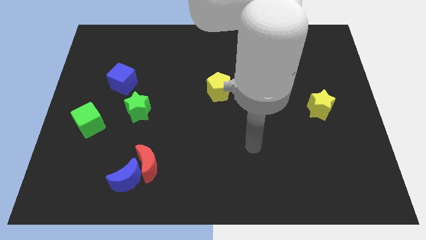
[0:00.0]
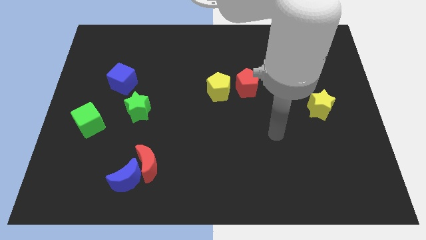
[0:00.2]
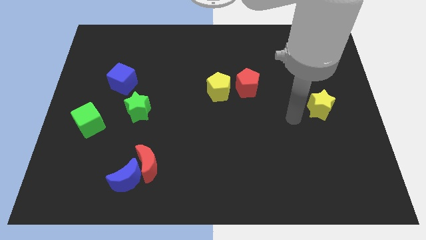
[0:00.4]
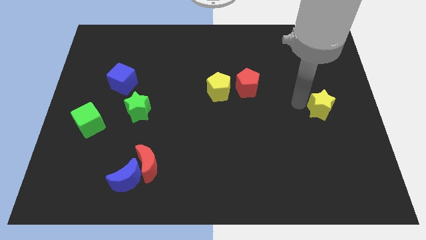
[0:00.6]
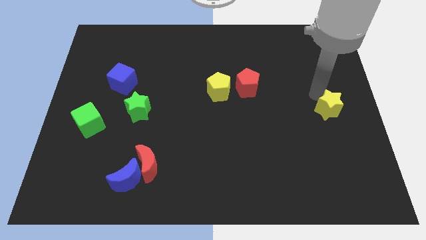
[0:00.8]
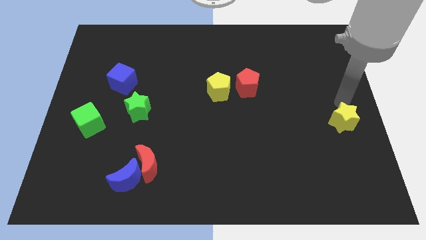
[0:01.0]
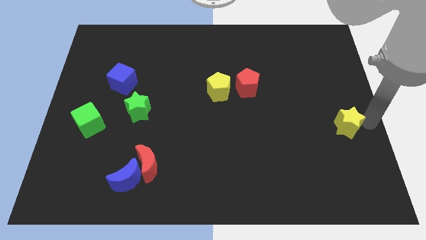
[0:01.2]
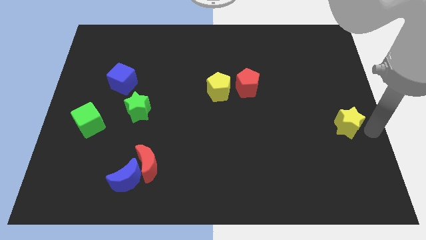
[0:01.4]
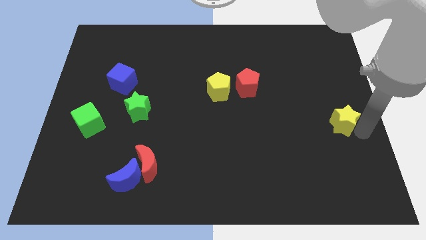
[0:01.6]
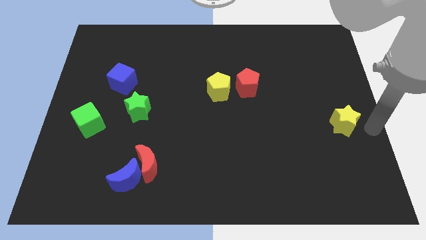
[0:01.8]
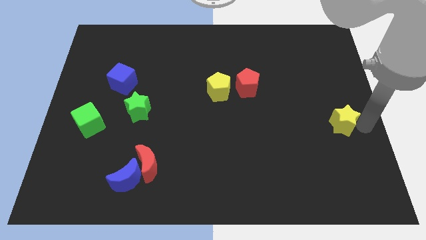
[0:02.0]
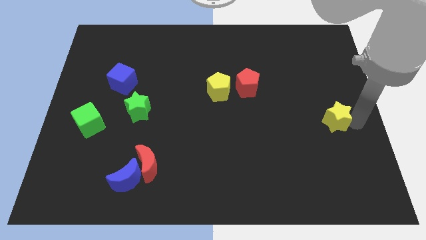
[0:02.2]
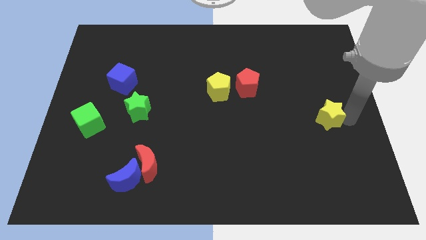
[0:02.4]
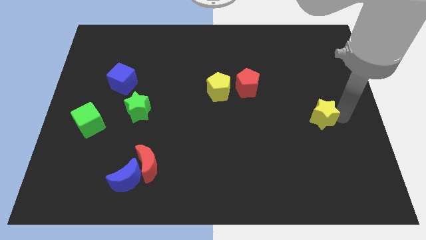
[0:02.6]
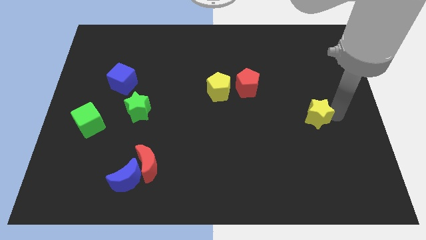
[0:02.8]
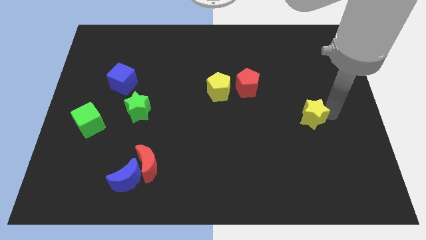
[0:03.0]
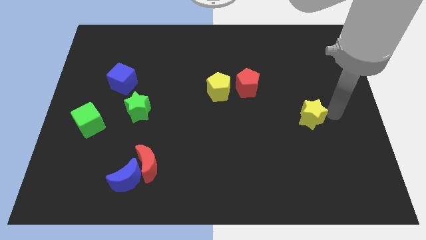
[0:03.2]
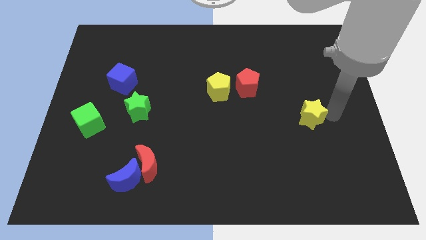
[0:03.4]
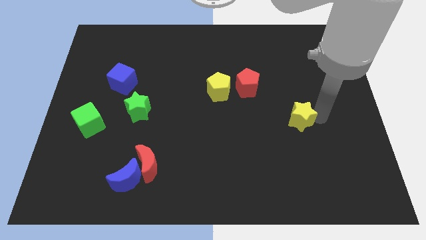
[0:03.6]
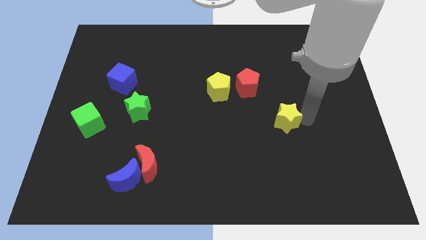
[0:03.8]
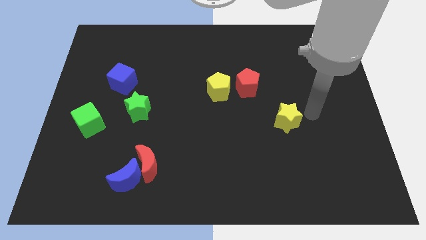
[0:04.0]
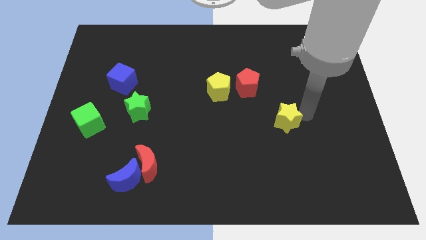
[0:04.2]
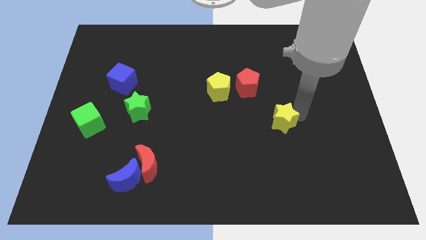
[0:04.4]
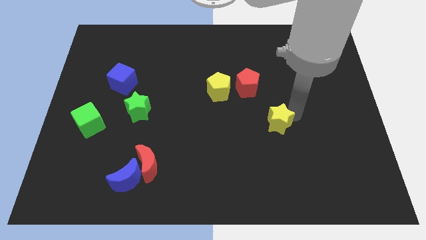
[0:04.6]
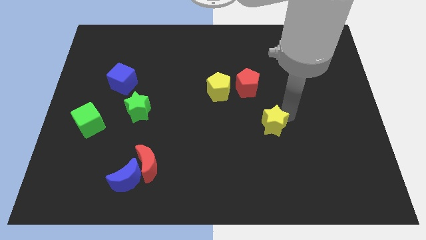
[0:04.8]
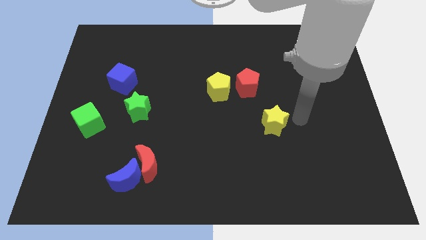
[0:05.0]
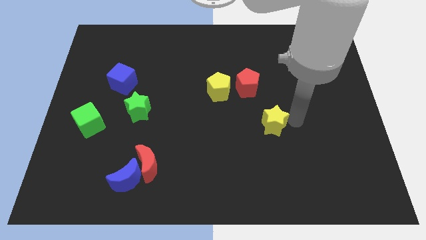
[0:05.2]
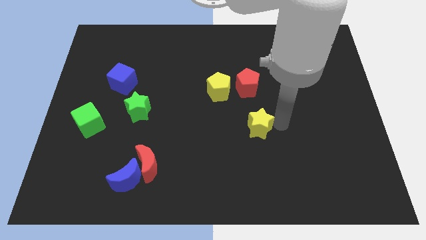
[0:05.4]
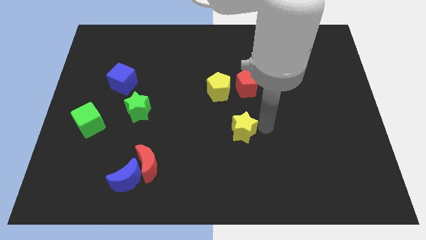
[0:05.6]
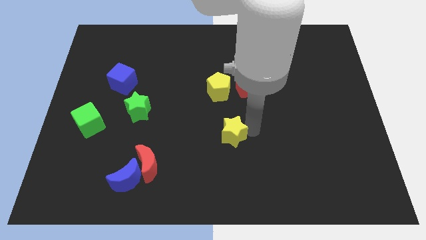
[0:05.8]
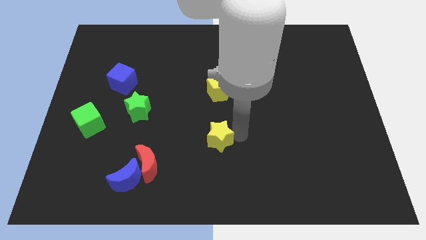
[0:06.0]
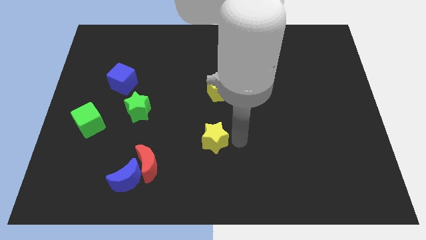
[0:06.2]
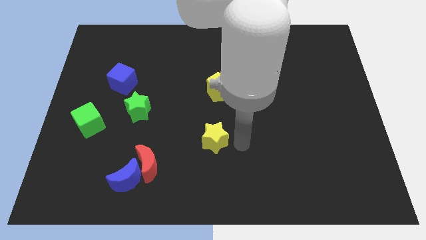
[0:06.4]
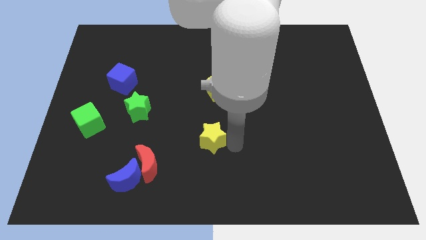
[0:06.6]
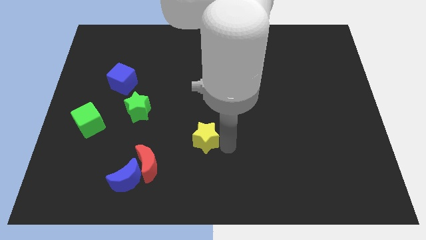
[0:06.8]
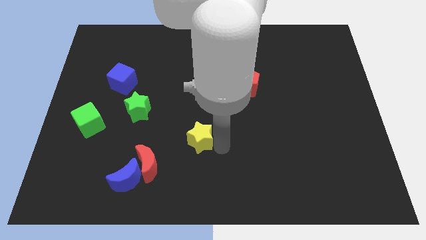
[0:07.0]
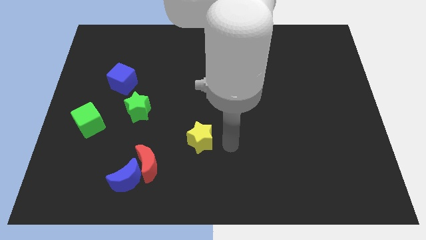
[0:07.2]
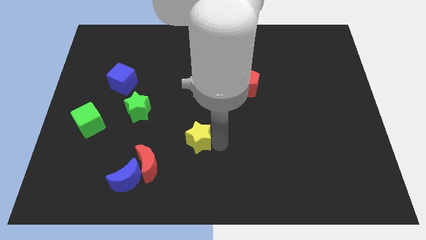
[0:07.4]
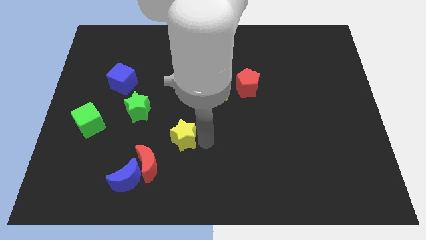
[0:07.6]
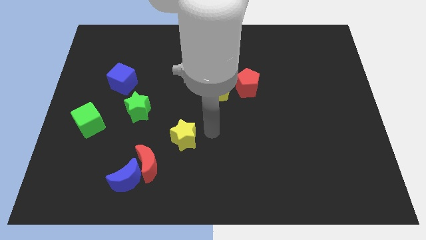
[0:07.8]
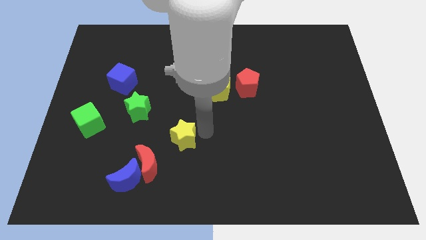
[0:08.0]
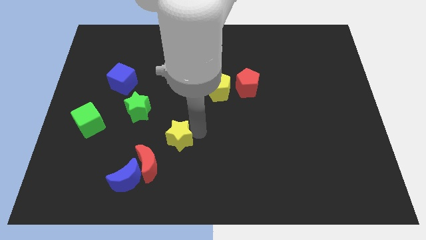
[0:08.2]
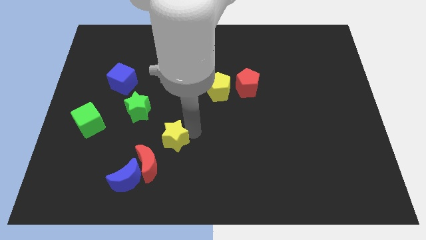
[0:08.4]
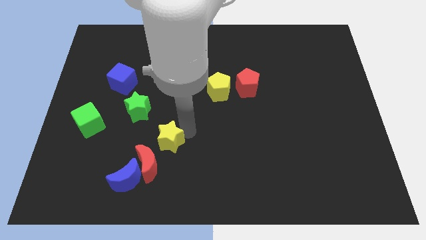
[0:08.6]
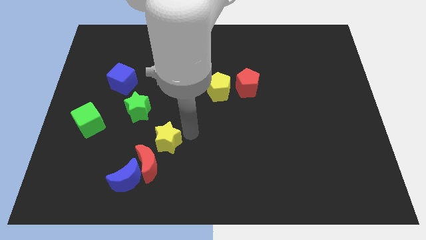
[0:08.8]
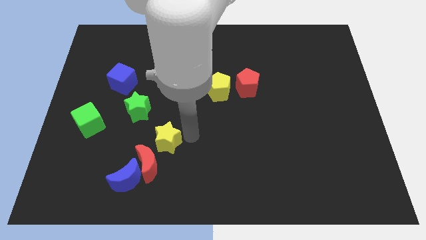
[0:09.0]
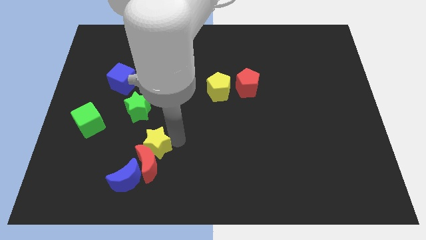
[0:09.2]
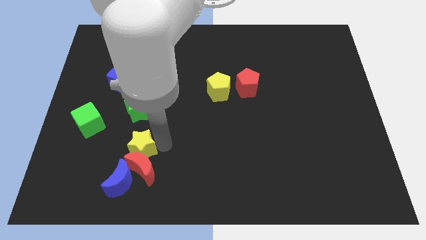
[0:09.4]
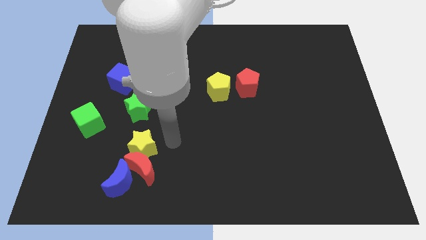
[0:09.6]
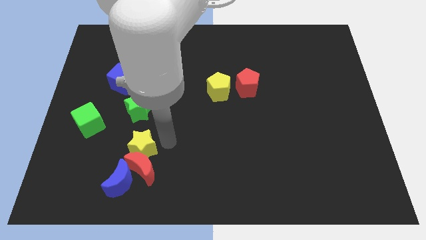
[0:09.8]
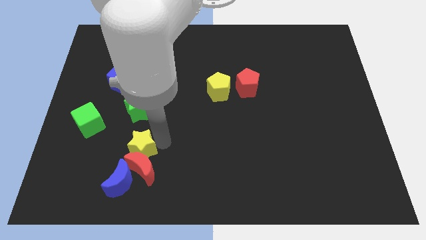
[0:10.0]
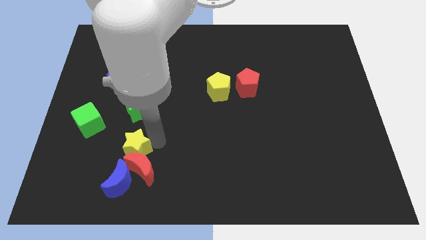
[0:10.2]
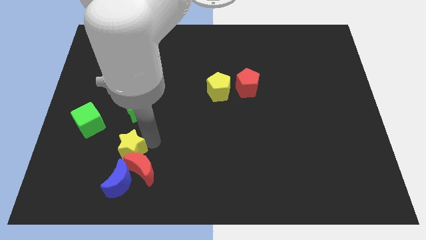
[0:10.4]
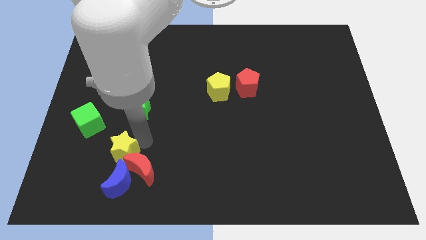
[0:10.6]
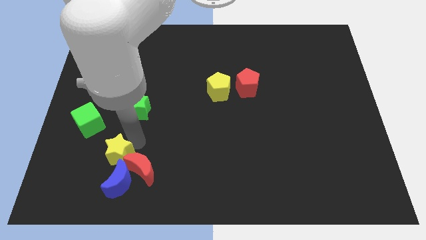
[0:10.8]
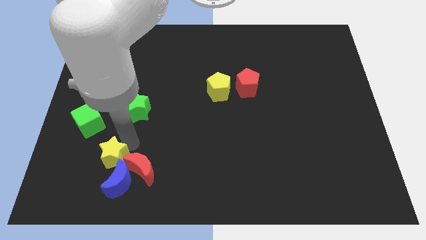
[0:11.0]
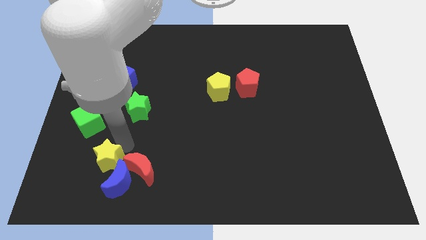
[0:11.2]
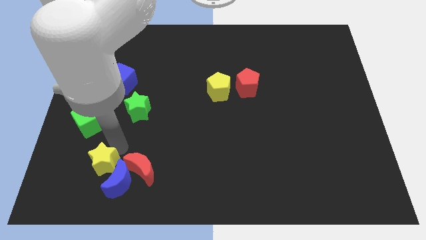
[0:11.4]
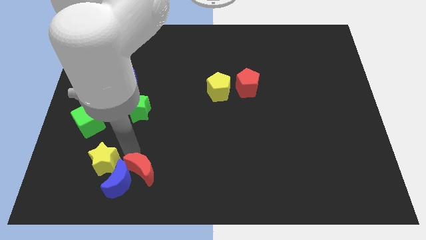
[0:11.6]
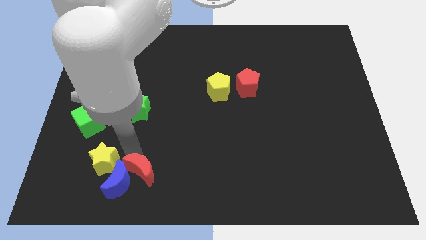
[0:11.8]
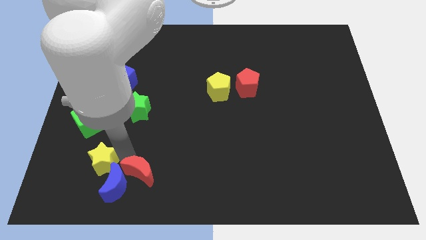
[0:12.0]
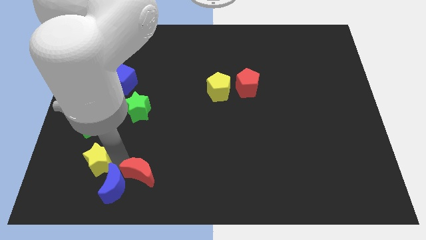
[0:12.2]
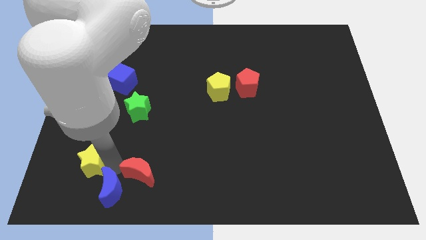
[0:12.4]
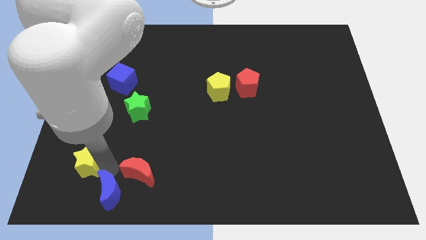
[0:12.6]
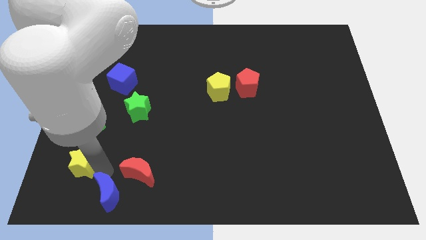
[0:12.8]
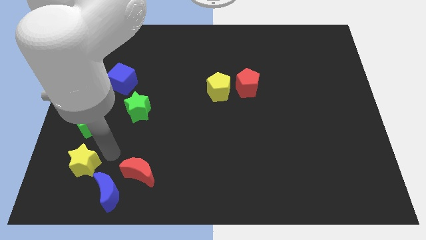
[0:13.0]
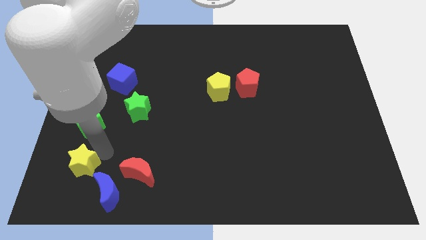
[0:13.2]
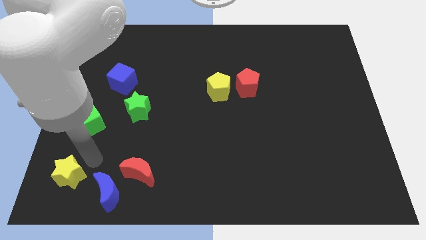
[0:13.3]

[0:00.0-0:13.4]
put the yellow star to the bottom left
